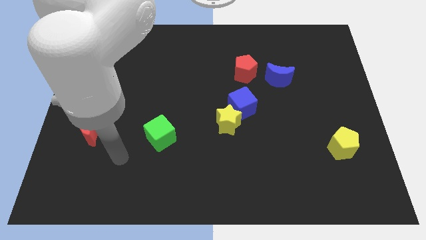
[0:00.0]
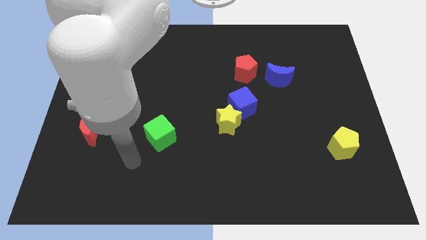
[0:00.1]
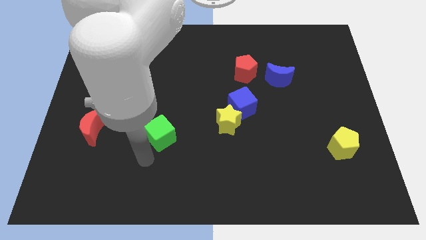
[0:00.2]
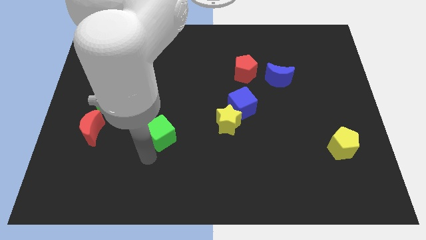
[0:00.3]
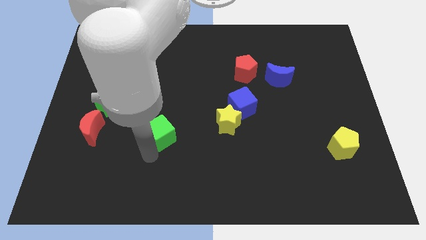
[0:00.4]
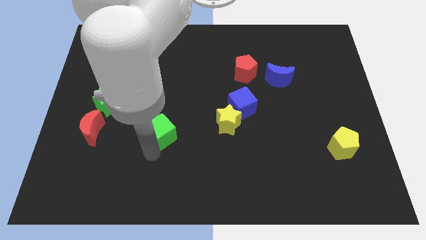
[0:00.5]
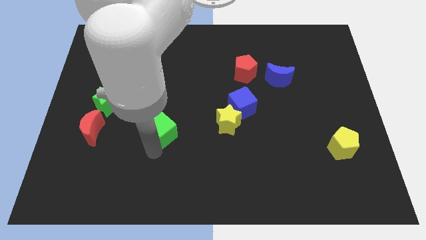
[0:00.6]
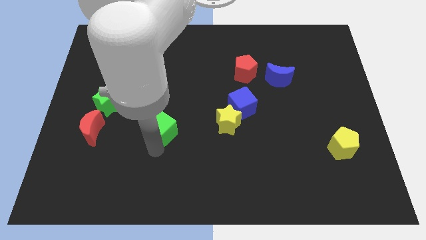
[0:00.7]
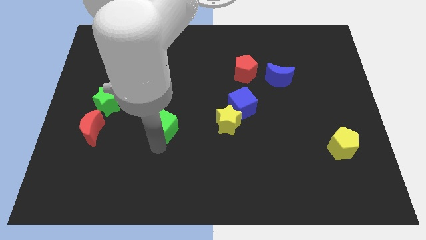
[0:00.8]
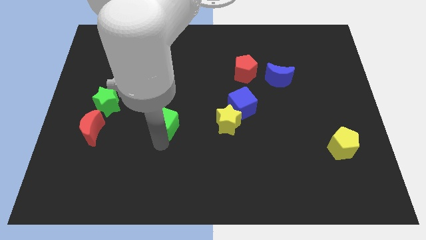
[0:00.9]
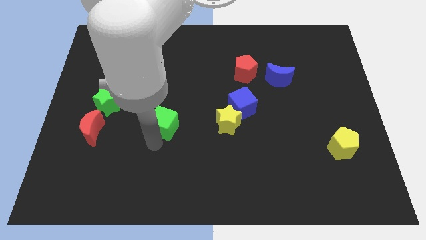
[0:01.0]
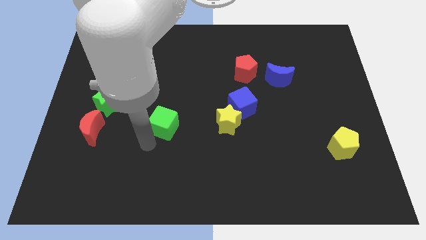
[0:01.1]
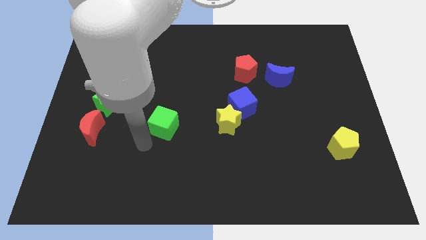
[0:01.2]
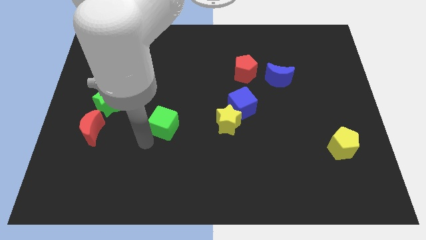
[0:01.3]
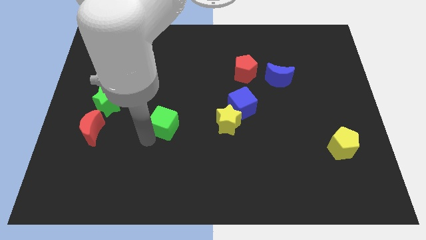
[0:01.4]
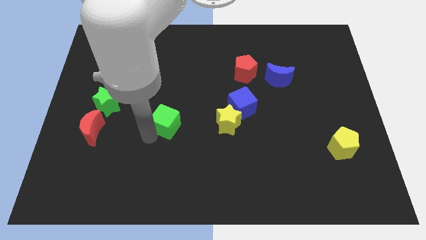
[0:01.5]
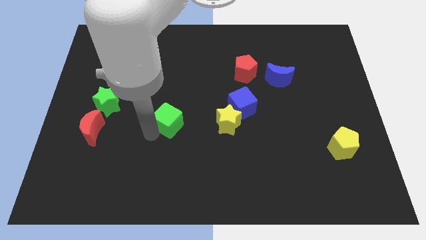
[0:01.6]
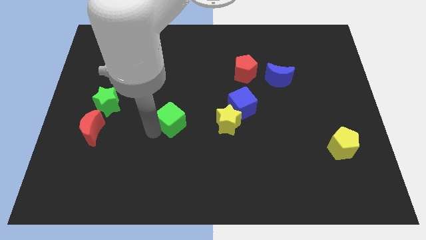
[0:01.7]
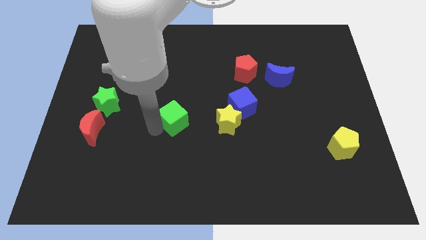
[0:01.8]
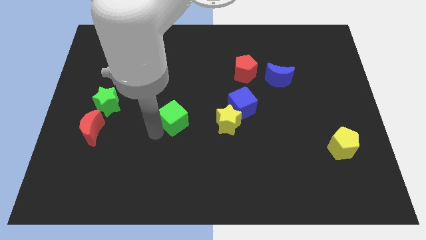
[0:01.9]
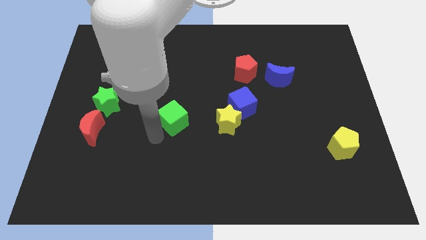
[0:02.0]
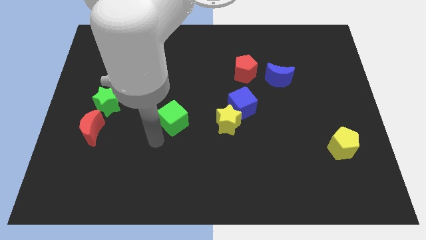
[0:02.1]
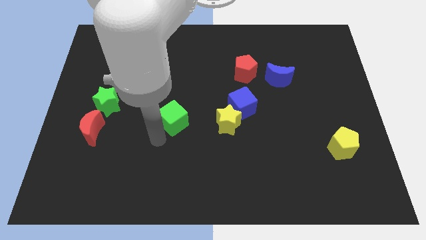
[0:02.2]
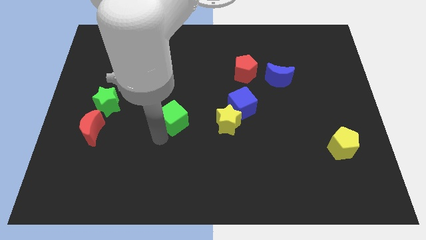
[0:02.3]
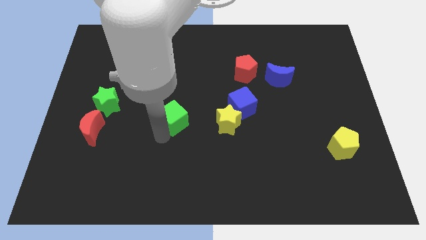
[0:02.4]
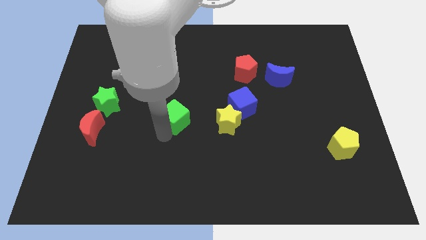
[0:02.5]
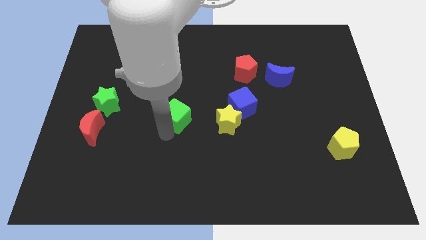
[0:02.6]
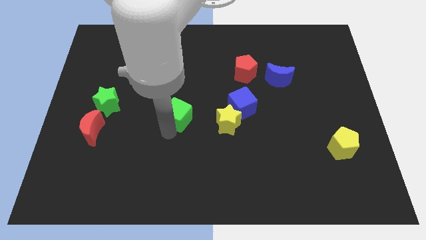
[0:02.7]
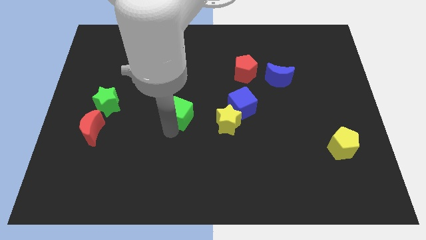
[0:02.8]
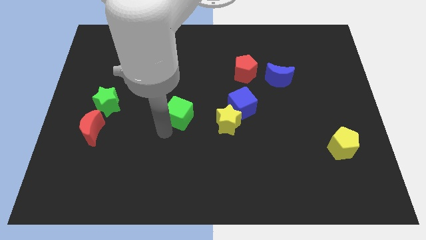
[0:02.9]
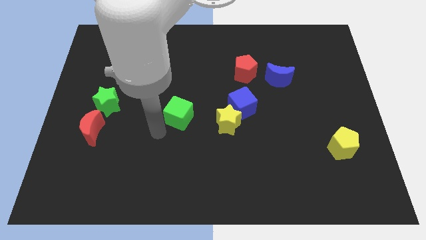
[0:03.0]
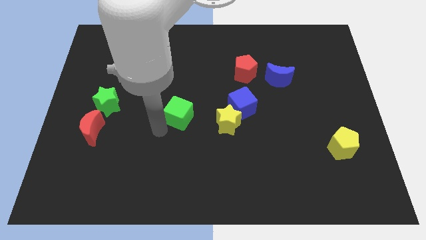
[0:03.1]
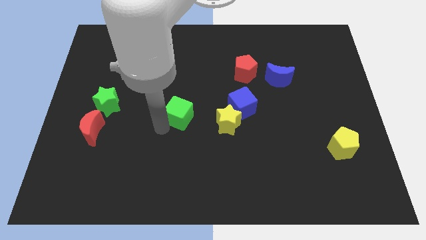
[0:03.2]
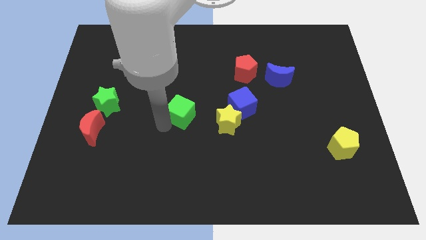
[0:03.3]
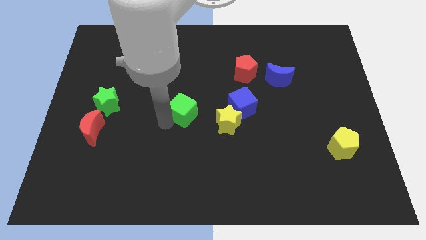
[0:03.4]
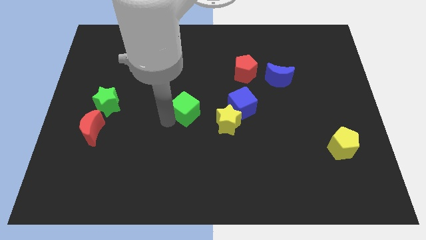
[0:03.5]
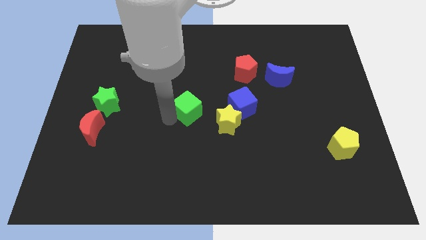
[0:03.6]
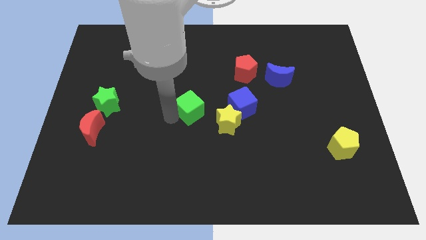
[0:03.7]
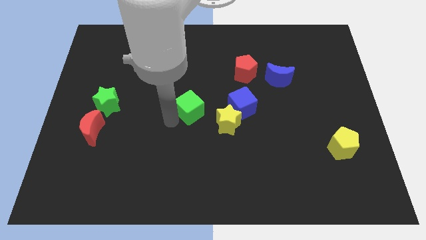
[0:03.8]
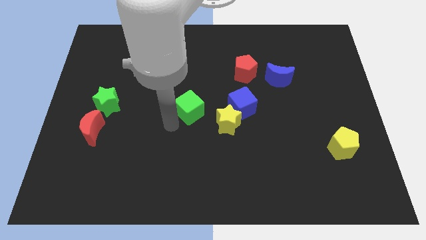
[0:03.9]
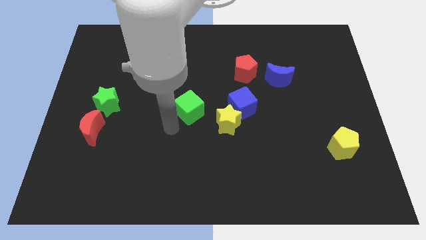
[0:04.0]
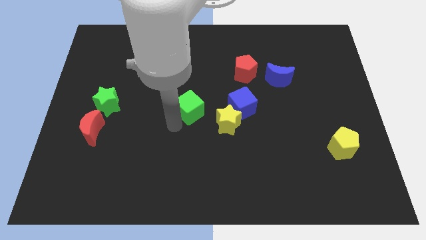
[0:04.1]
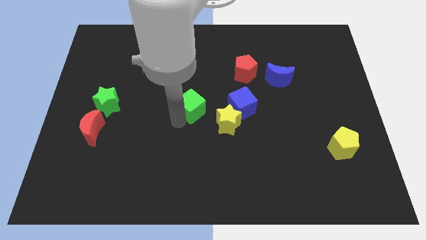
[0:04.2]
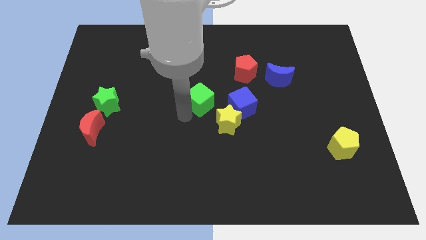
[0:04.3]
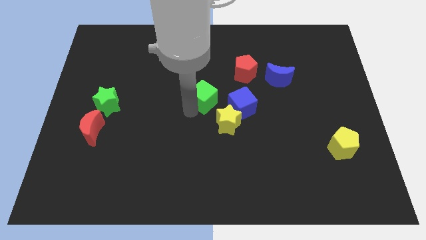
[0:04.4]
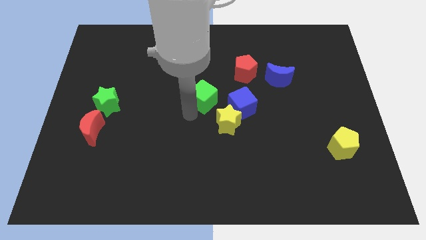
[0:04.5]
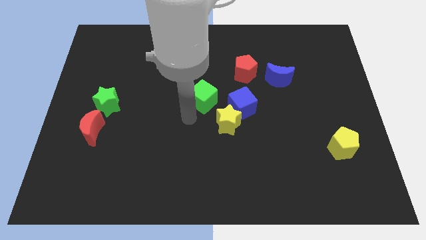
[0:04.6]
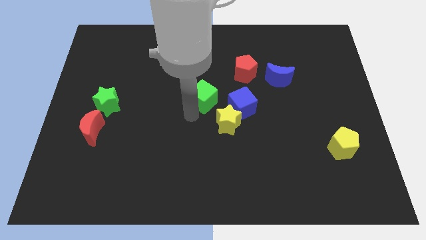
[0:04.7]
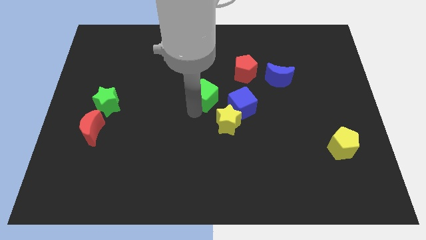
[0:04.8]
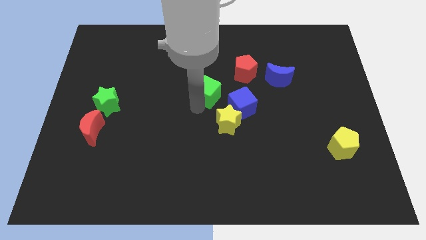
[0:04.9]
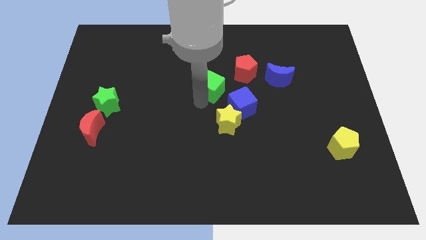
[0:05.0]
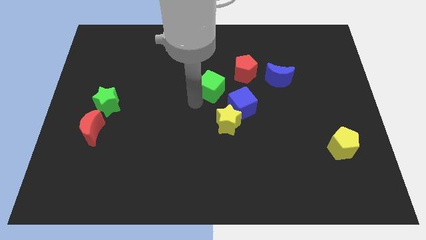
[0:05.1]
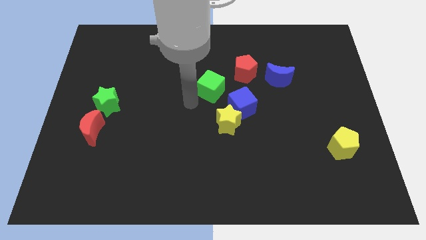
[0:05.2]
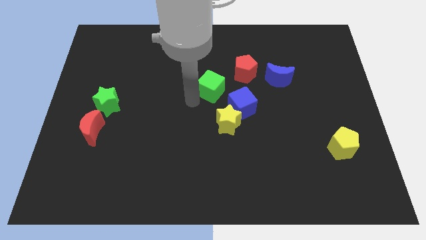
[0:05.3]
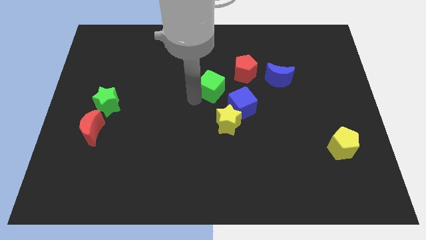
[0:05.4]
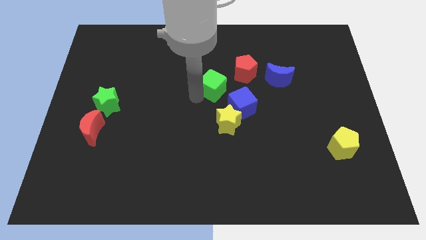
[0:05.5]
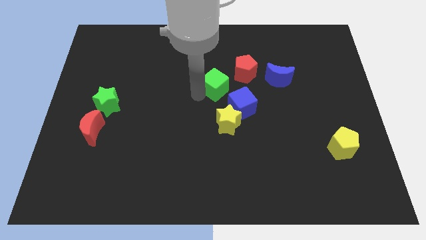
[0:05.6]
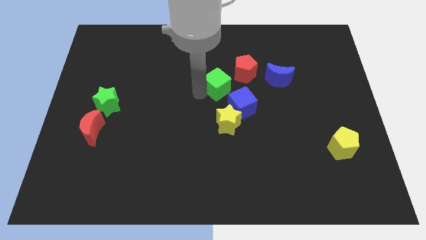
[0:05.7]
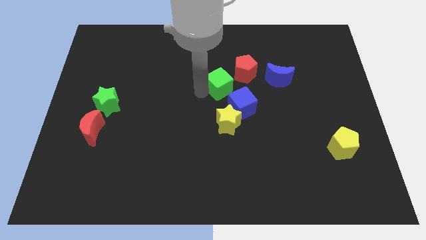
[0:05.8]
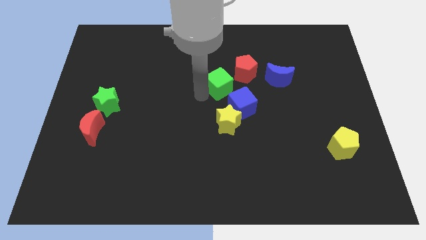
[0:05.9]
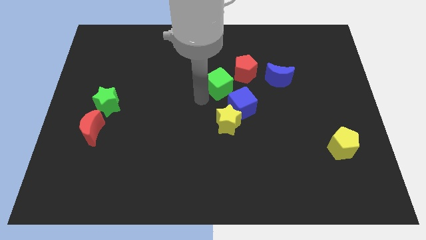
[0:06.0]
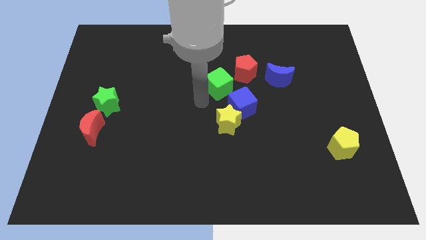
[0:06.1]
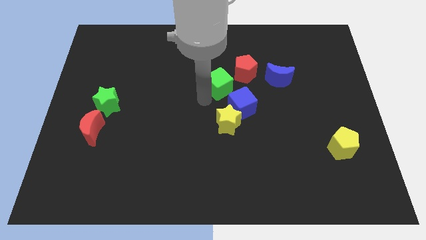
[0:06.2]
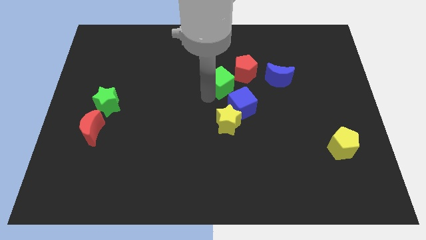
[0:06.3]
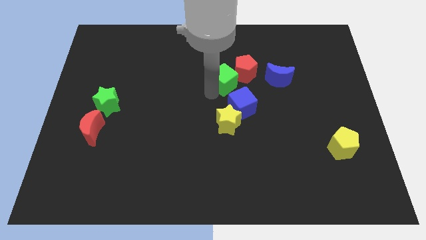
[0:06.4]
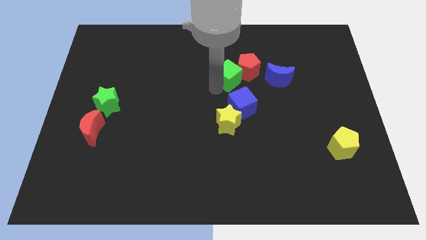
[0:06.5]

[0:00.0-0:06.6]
push the green cube next to the red pentagon
